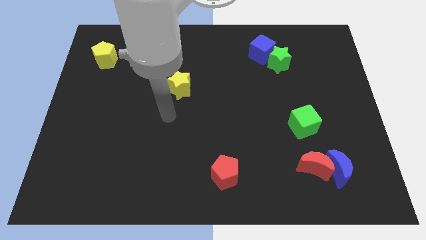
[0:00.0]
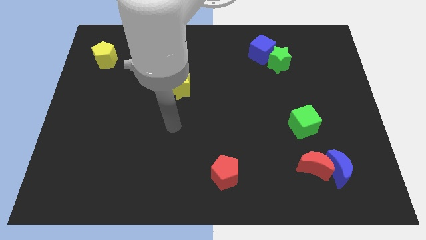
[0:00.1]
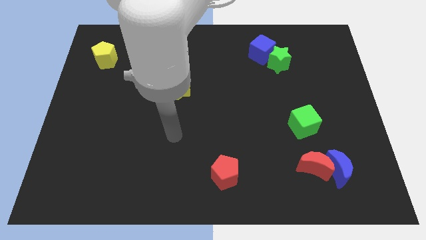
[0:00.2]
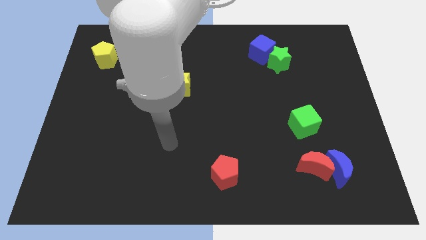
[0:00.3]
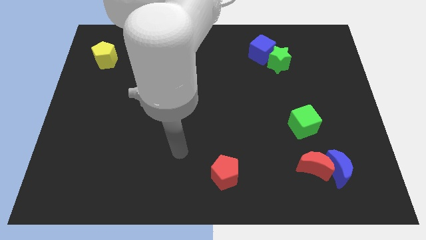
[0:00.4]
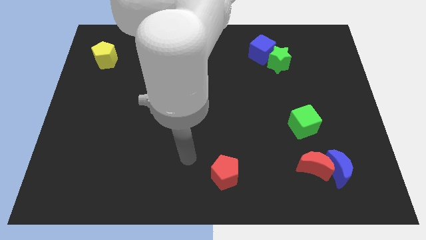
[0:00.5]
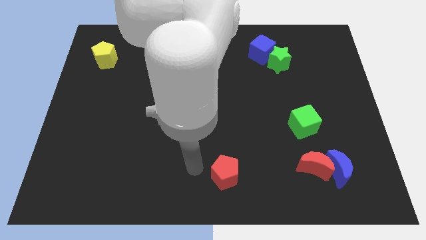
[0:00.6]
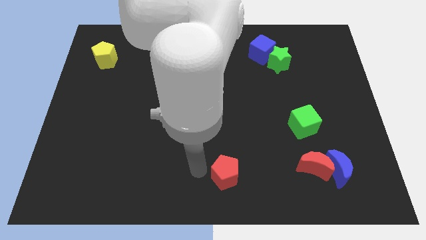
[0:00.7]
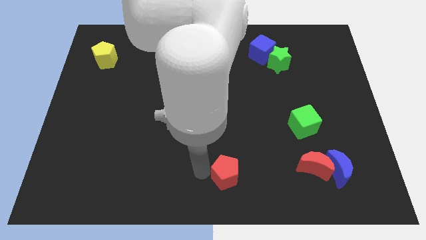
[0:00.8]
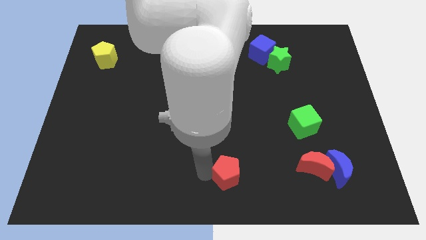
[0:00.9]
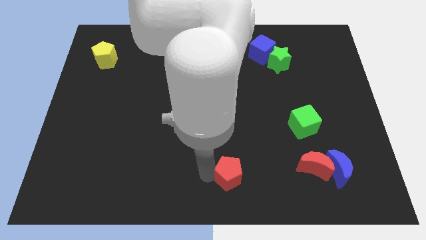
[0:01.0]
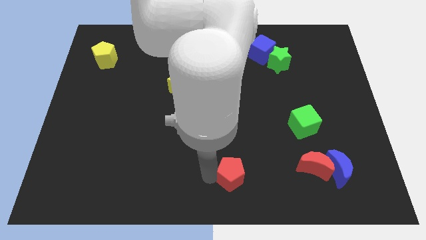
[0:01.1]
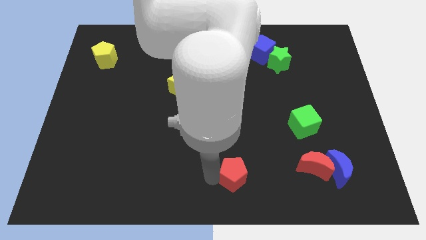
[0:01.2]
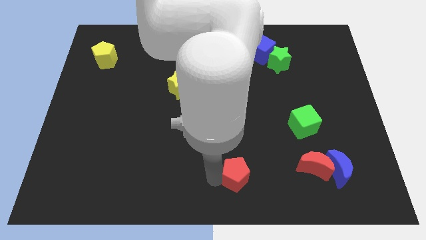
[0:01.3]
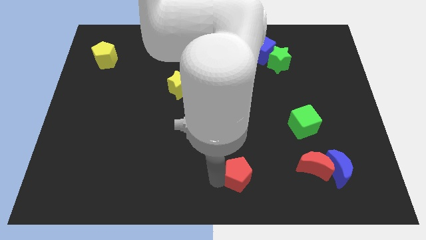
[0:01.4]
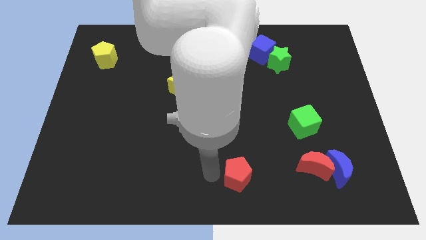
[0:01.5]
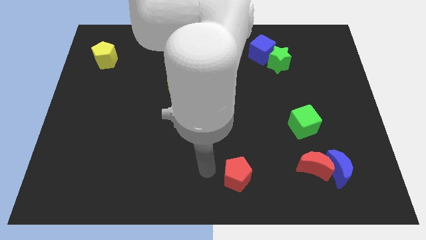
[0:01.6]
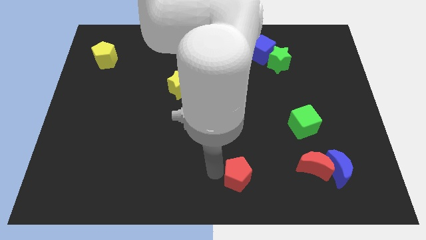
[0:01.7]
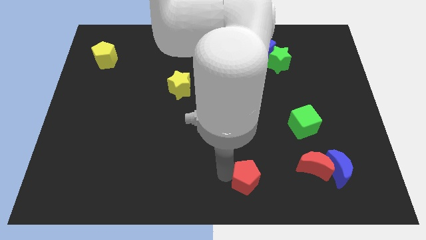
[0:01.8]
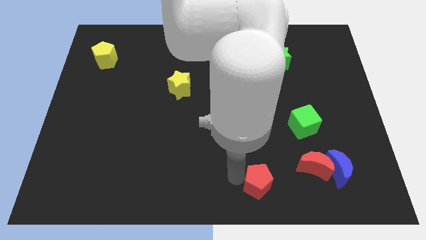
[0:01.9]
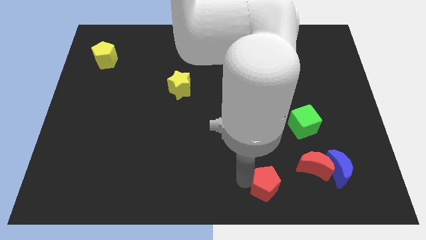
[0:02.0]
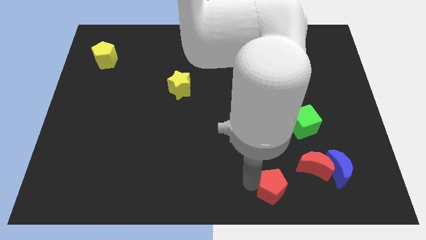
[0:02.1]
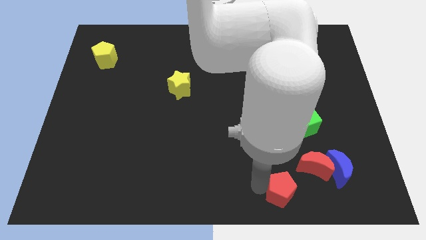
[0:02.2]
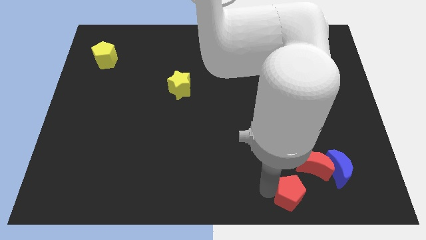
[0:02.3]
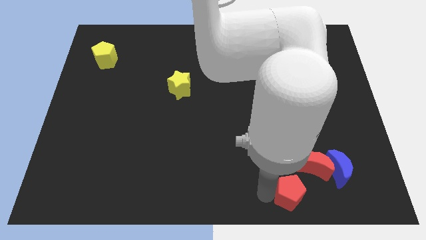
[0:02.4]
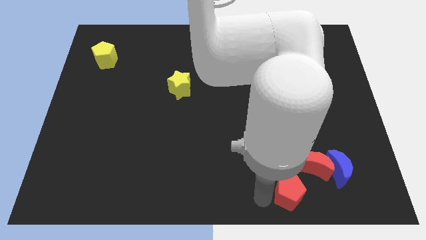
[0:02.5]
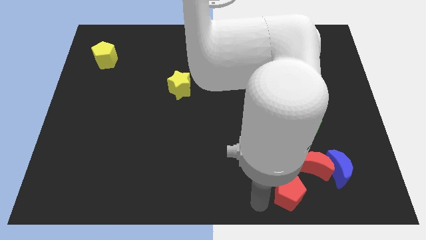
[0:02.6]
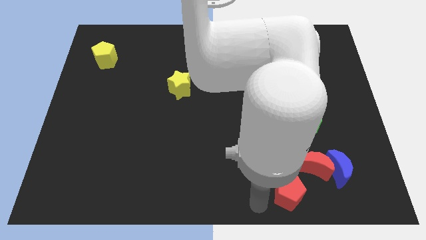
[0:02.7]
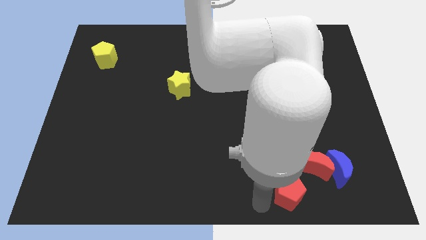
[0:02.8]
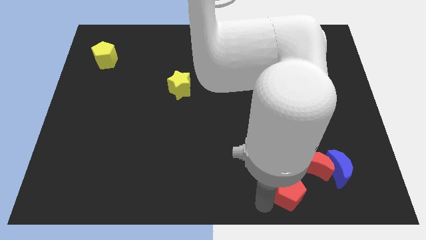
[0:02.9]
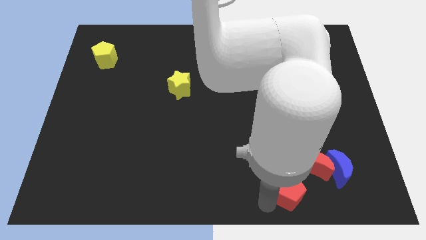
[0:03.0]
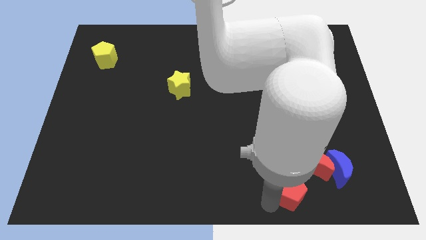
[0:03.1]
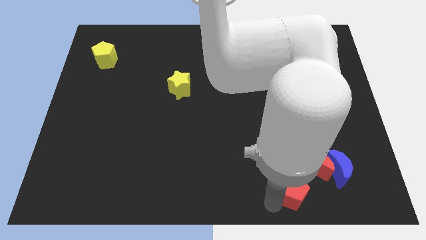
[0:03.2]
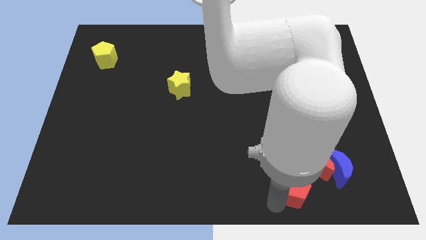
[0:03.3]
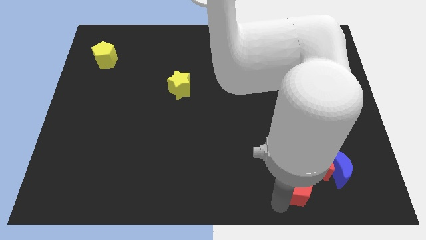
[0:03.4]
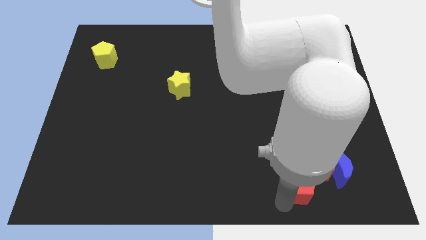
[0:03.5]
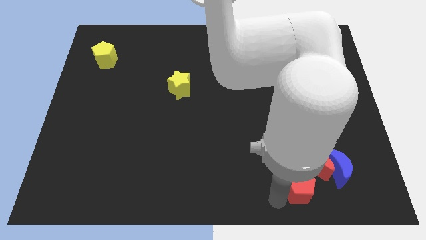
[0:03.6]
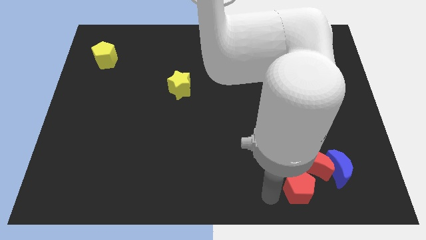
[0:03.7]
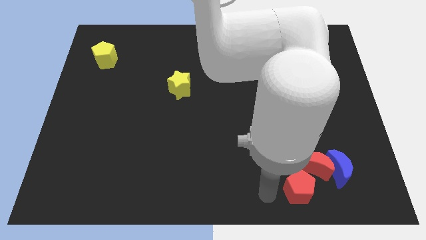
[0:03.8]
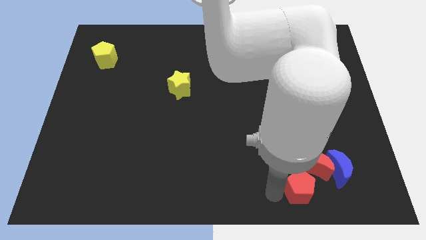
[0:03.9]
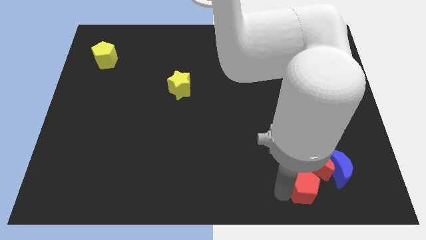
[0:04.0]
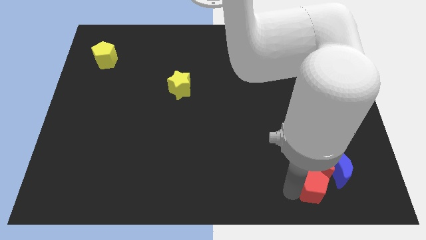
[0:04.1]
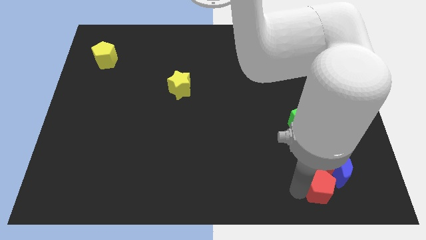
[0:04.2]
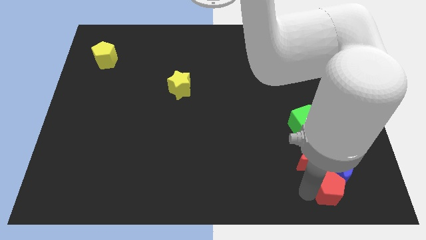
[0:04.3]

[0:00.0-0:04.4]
put the red pentagon next to the blue moon

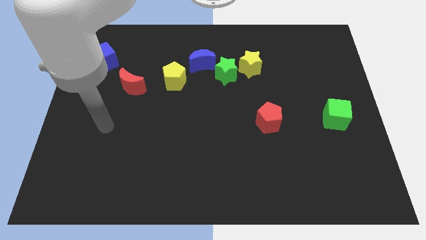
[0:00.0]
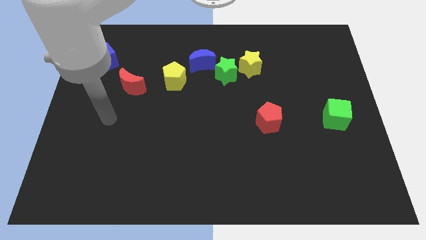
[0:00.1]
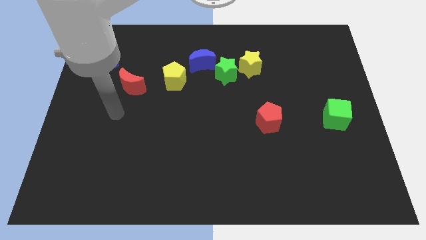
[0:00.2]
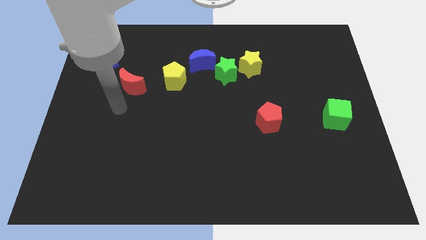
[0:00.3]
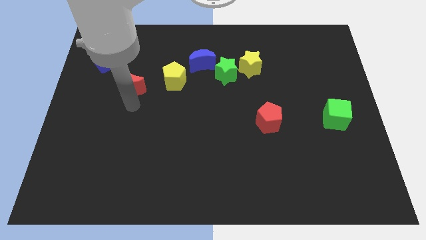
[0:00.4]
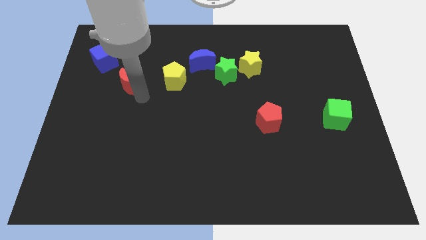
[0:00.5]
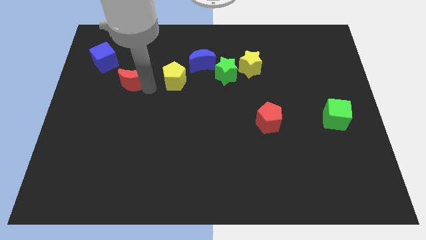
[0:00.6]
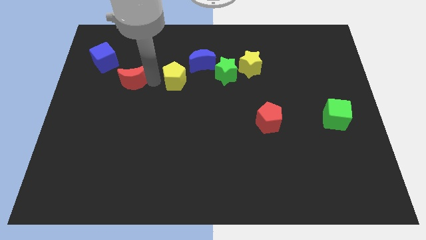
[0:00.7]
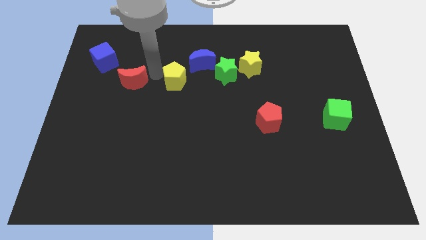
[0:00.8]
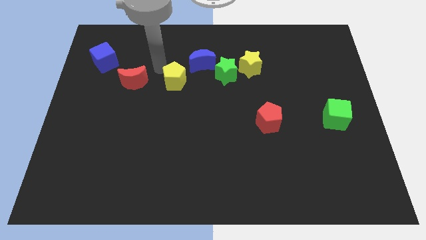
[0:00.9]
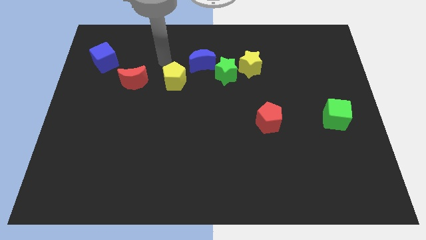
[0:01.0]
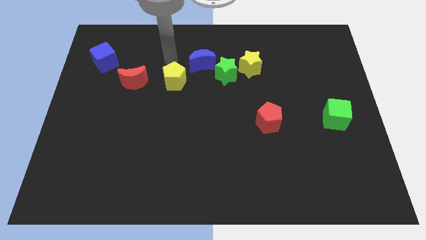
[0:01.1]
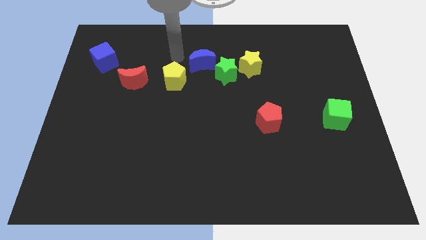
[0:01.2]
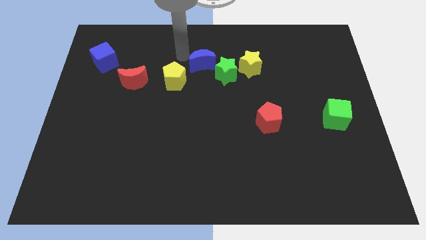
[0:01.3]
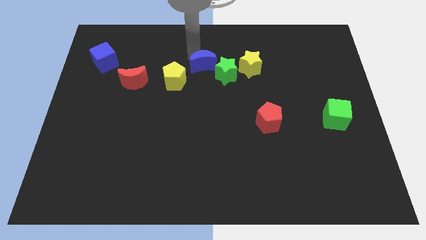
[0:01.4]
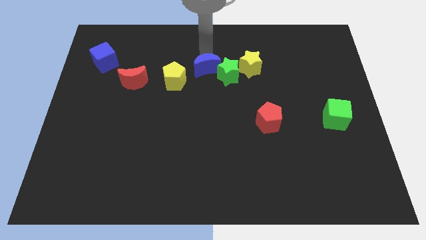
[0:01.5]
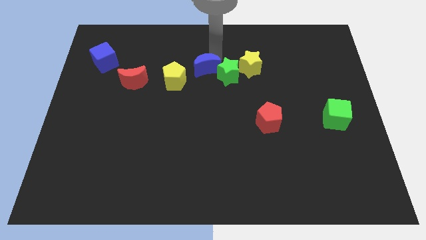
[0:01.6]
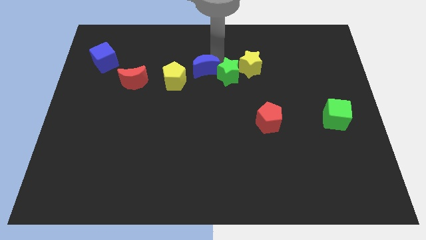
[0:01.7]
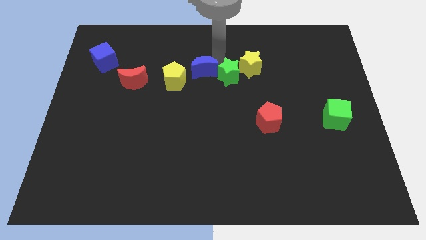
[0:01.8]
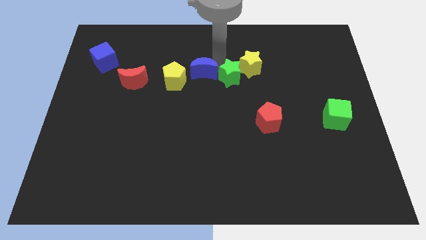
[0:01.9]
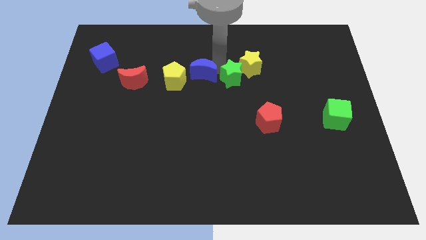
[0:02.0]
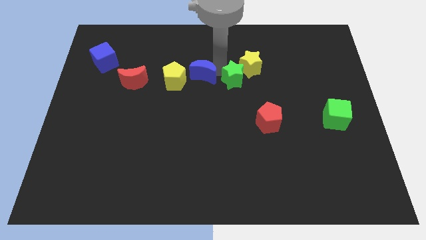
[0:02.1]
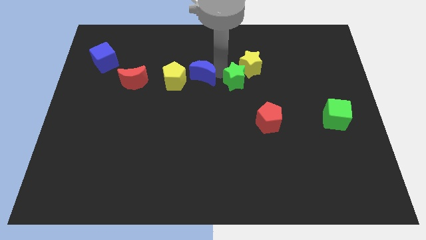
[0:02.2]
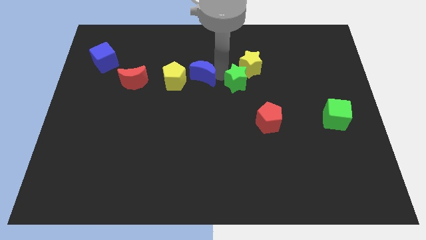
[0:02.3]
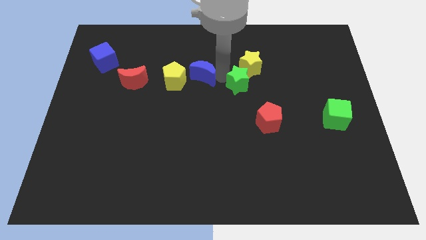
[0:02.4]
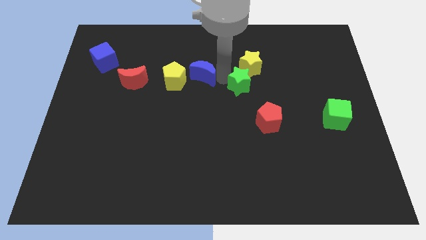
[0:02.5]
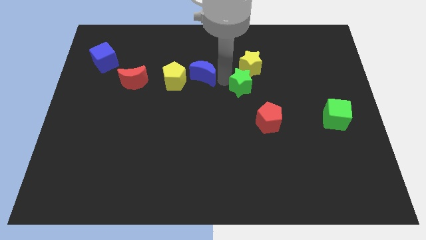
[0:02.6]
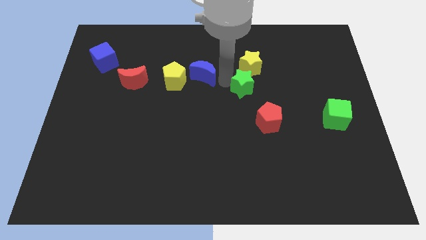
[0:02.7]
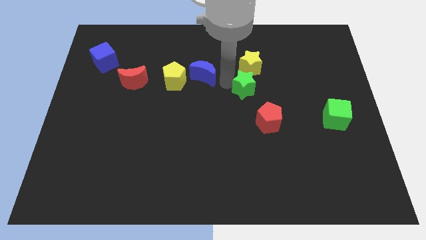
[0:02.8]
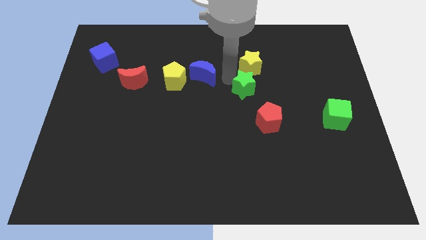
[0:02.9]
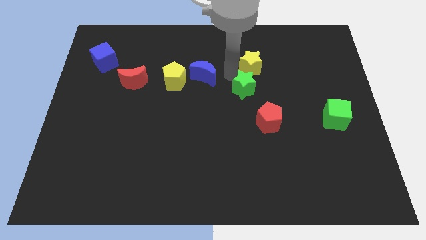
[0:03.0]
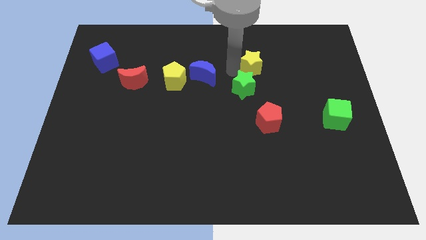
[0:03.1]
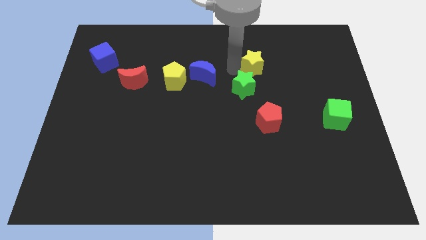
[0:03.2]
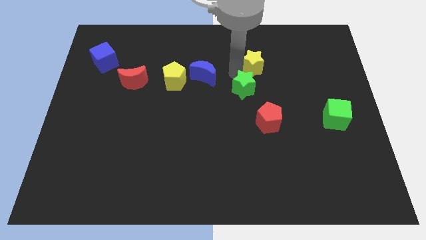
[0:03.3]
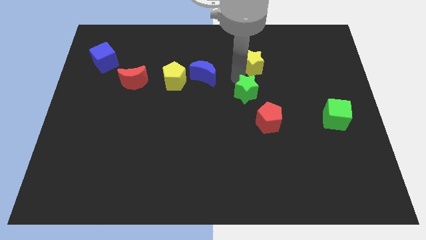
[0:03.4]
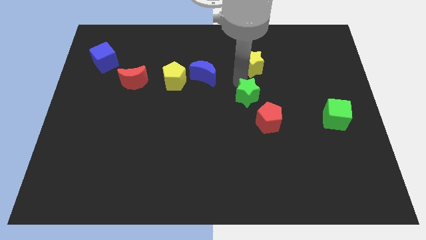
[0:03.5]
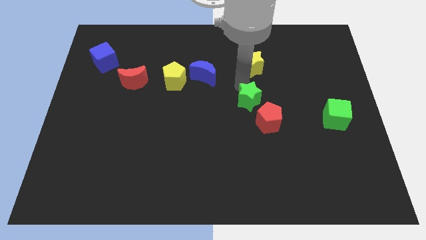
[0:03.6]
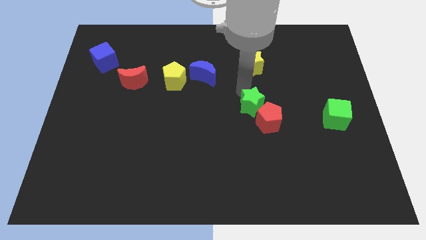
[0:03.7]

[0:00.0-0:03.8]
slide the green star towards the red pentagon
